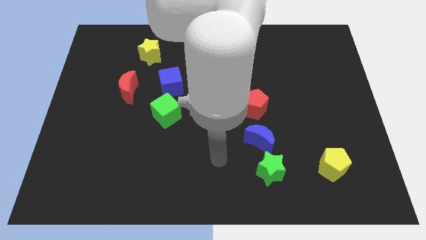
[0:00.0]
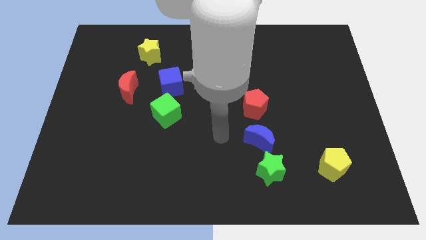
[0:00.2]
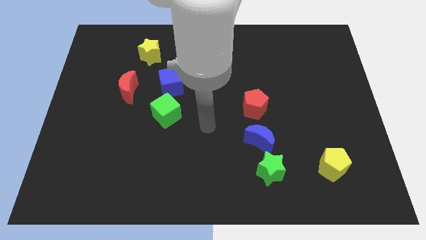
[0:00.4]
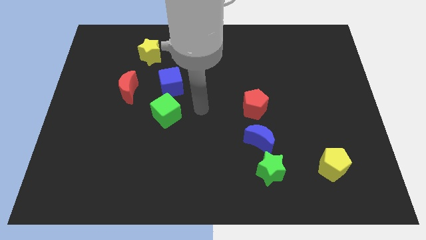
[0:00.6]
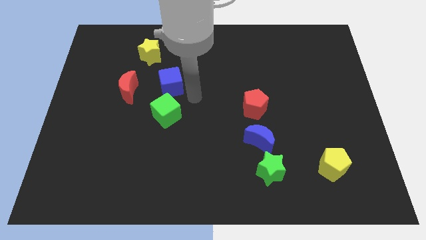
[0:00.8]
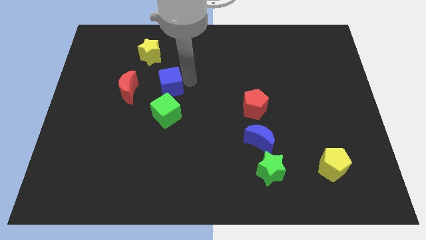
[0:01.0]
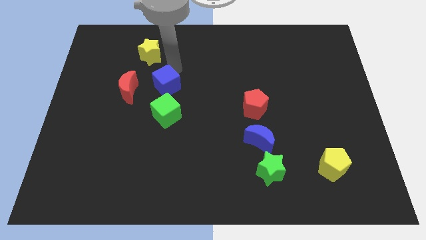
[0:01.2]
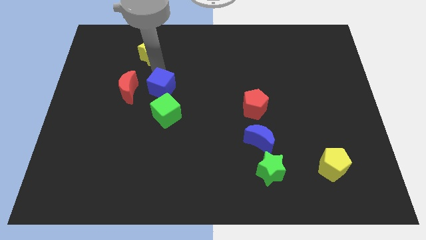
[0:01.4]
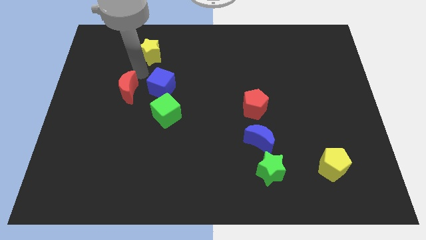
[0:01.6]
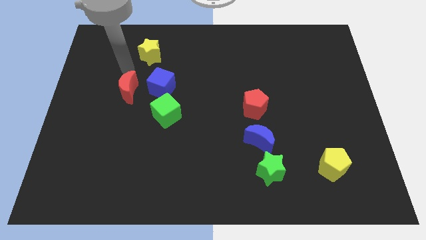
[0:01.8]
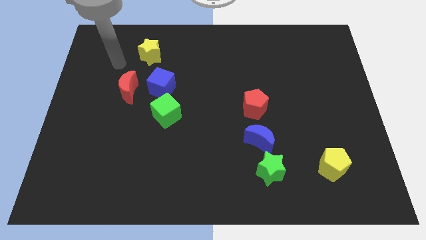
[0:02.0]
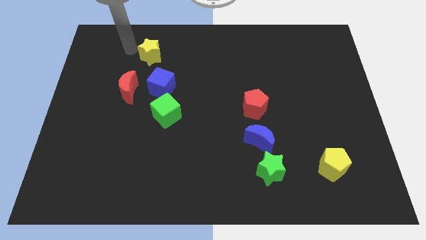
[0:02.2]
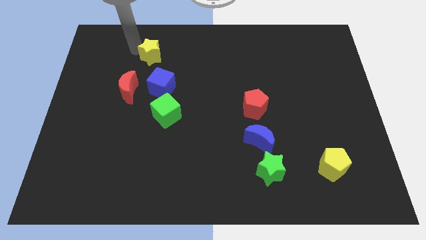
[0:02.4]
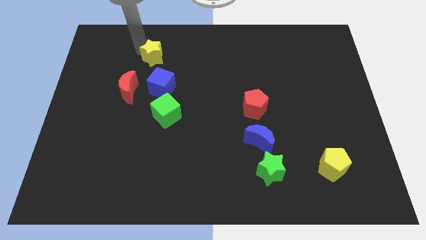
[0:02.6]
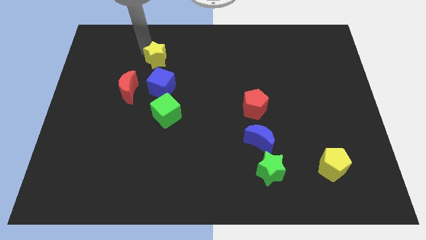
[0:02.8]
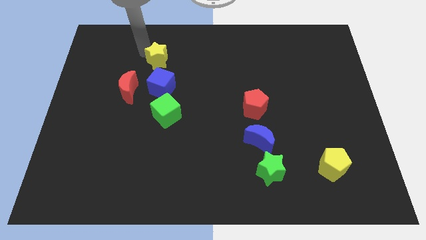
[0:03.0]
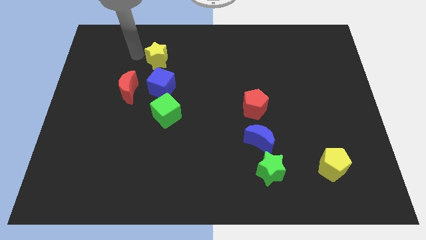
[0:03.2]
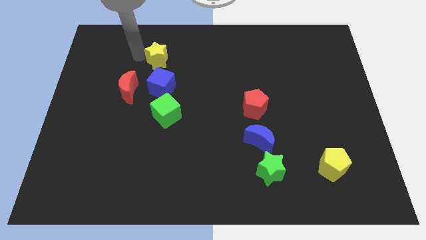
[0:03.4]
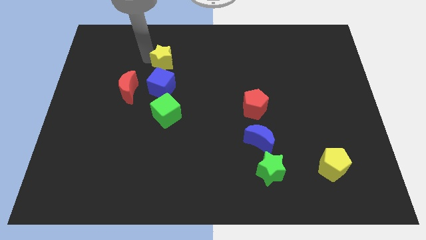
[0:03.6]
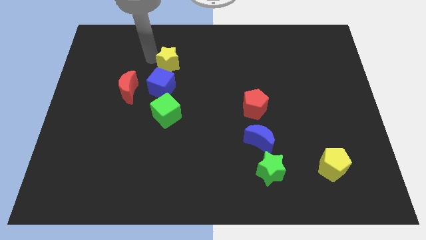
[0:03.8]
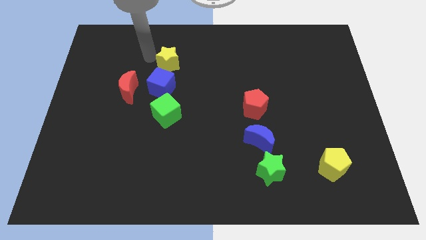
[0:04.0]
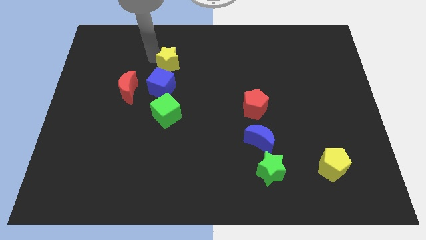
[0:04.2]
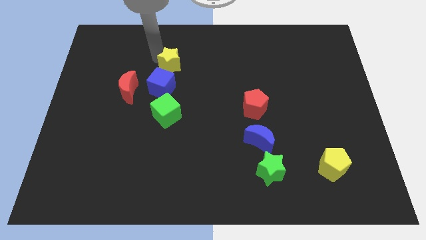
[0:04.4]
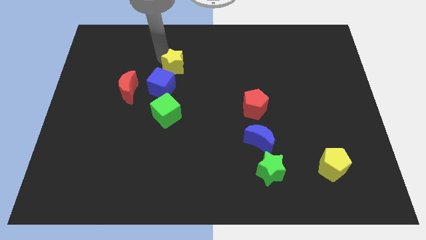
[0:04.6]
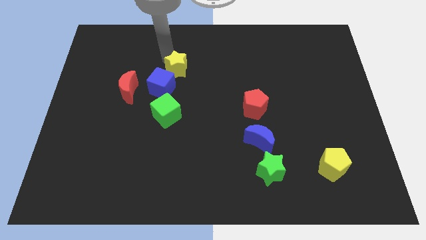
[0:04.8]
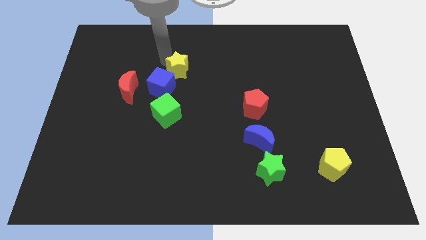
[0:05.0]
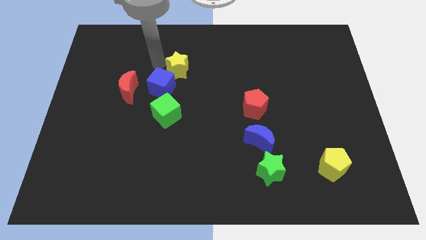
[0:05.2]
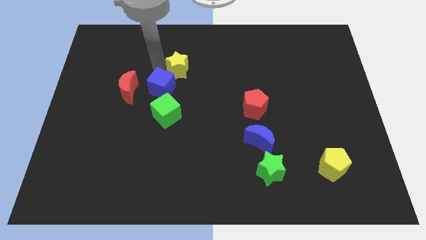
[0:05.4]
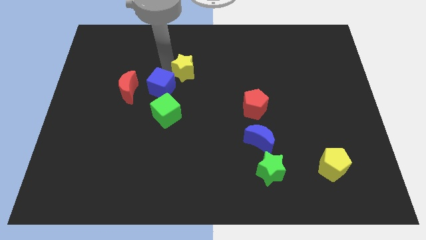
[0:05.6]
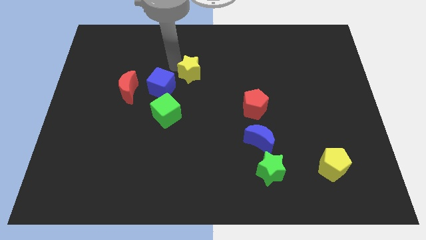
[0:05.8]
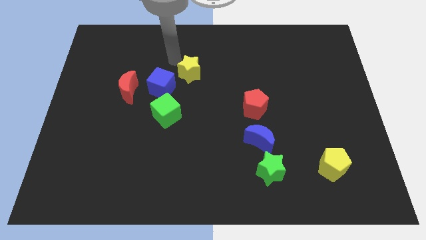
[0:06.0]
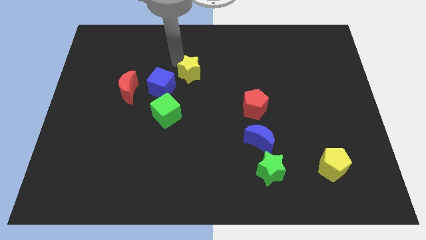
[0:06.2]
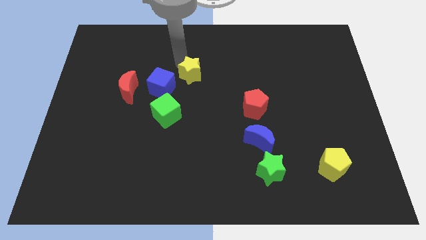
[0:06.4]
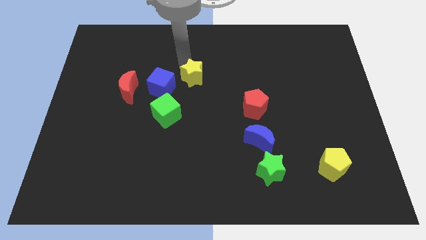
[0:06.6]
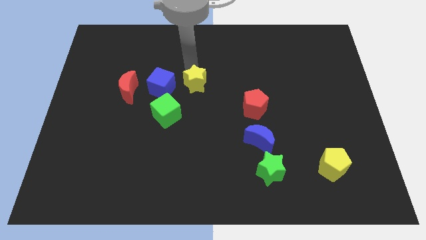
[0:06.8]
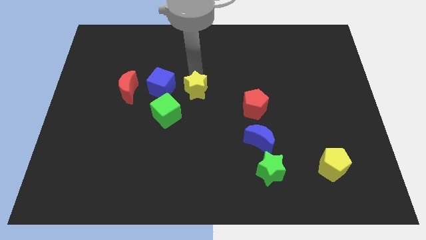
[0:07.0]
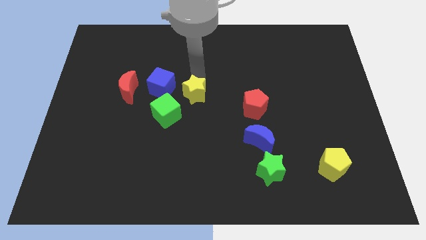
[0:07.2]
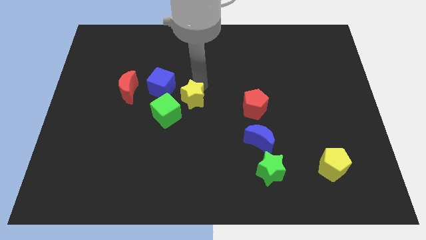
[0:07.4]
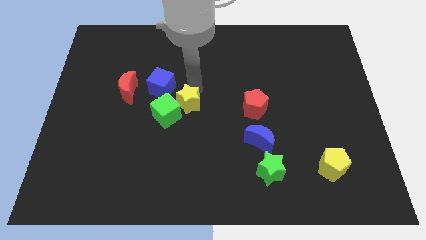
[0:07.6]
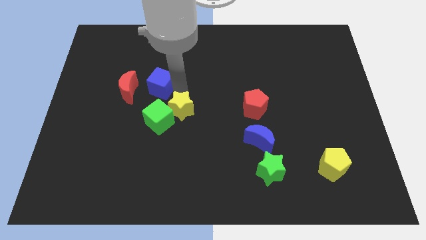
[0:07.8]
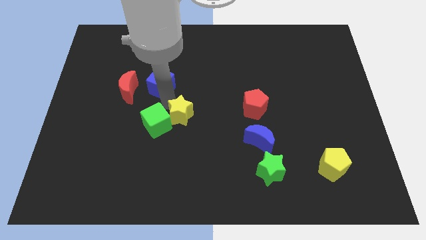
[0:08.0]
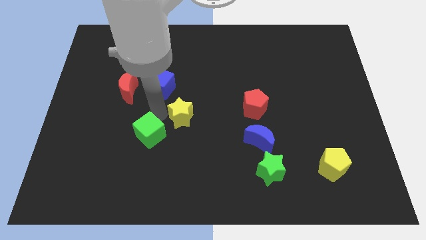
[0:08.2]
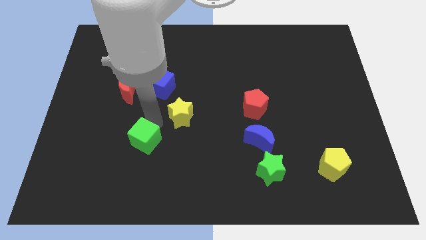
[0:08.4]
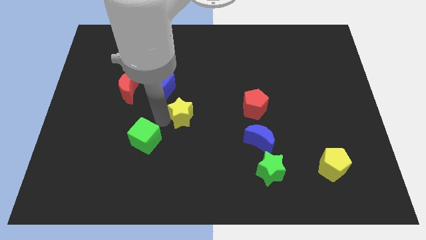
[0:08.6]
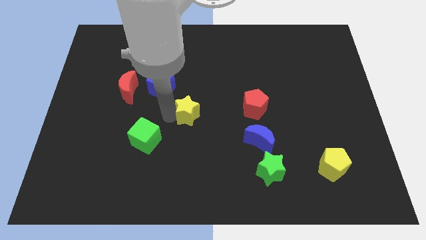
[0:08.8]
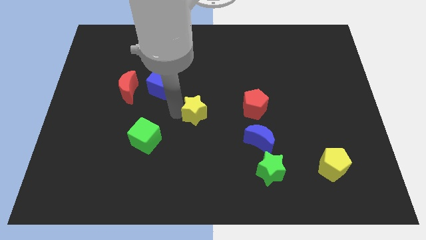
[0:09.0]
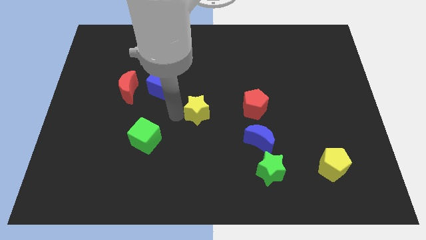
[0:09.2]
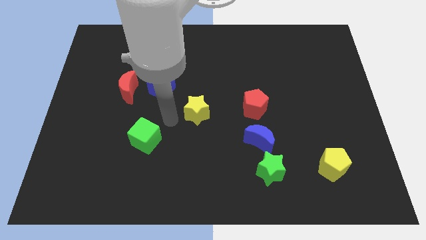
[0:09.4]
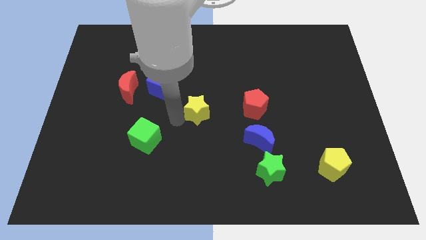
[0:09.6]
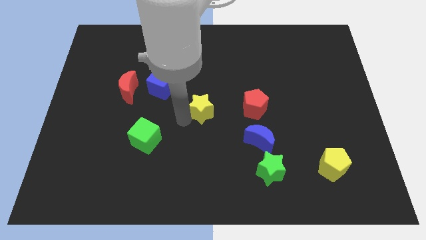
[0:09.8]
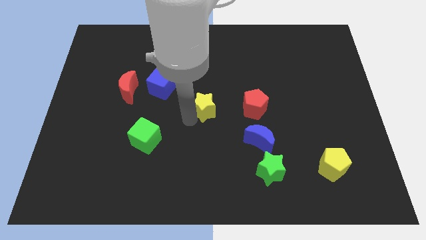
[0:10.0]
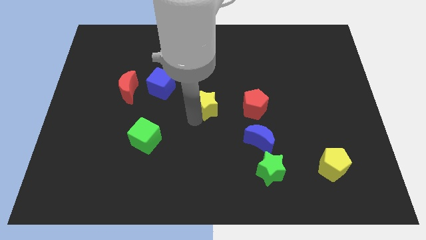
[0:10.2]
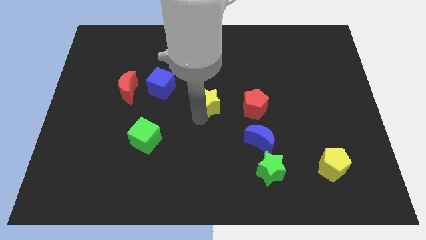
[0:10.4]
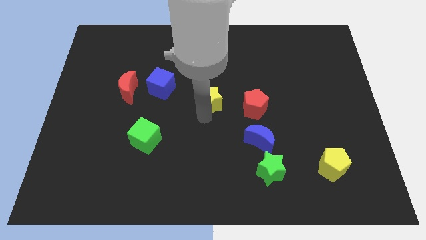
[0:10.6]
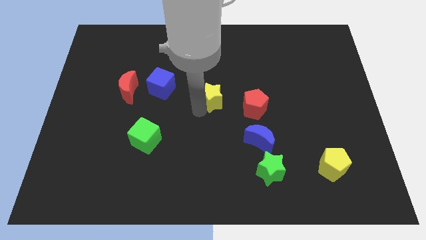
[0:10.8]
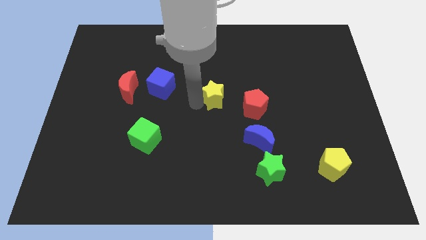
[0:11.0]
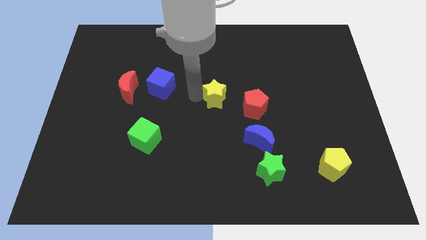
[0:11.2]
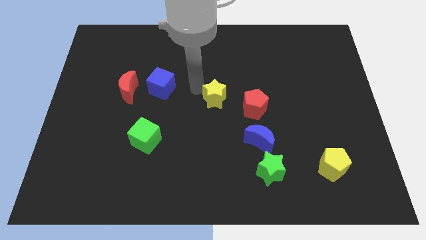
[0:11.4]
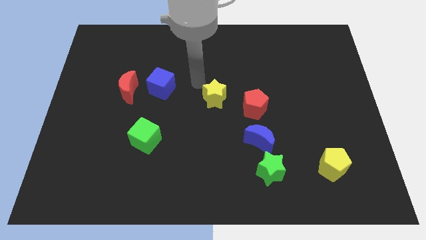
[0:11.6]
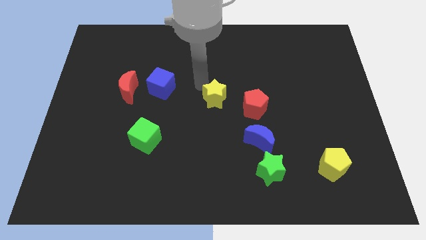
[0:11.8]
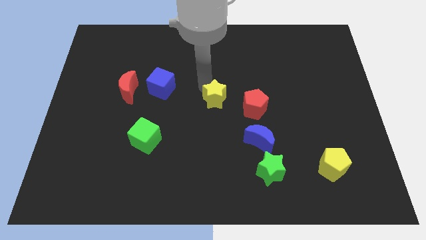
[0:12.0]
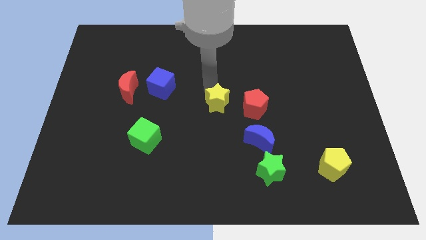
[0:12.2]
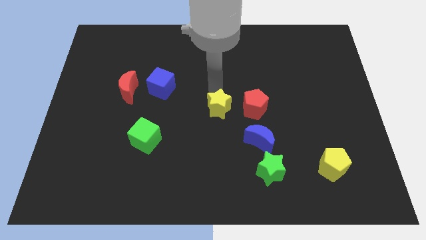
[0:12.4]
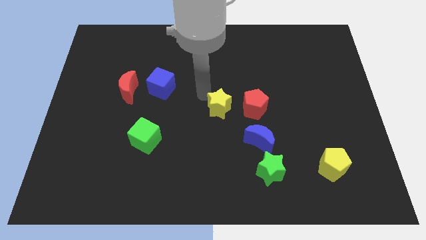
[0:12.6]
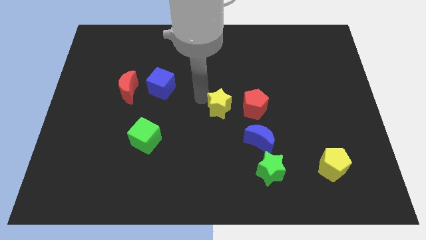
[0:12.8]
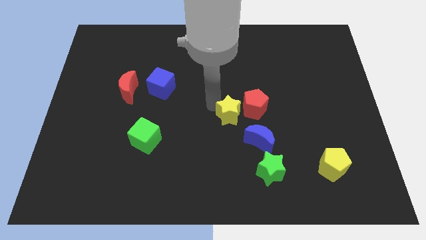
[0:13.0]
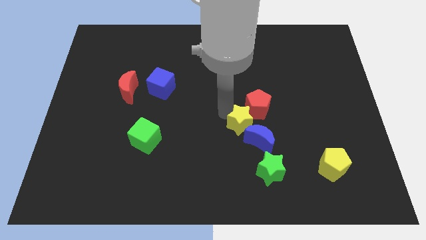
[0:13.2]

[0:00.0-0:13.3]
put the yellow star to the blue moon
